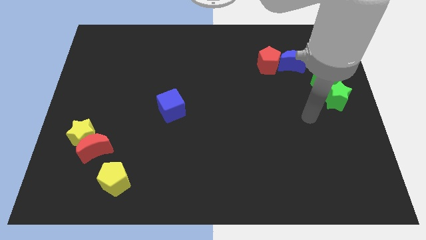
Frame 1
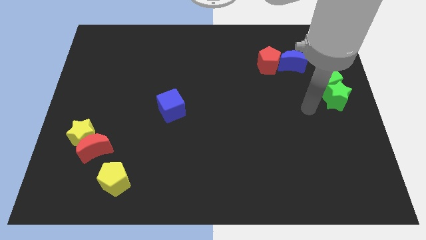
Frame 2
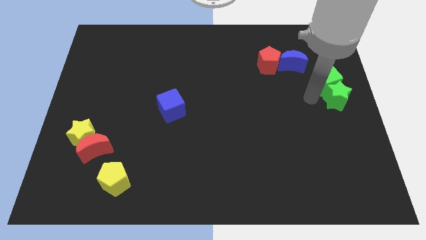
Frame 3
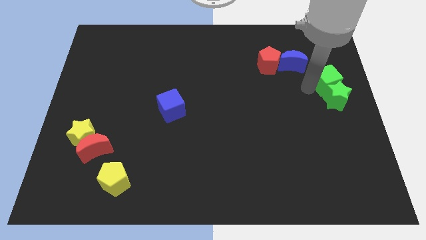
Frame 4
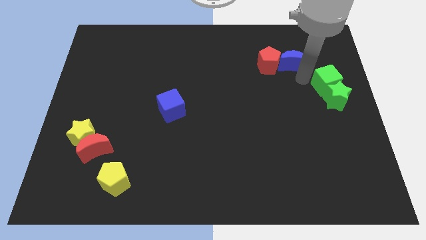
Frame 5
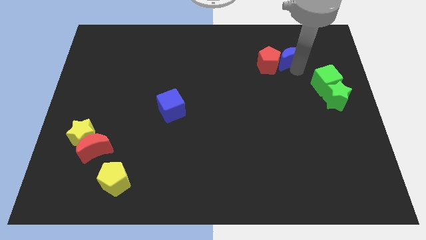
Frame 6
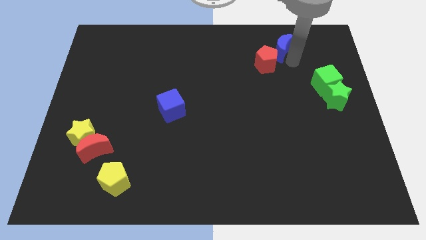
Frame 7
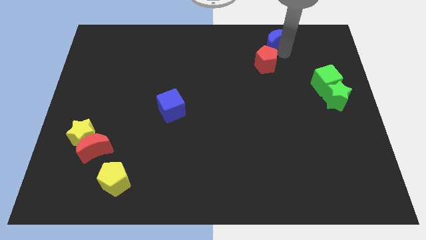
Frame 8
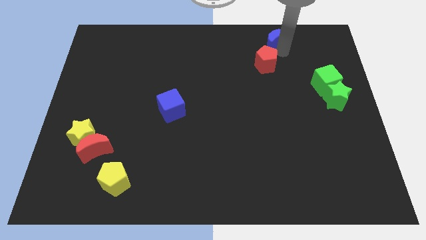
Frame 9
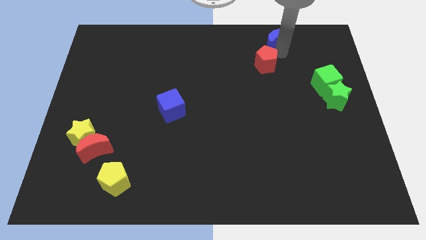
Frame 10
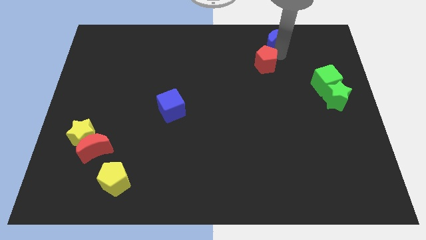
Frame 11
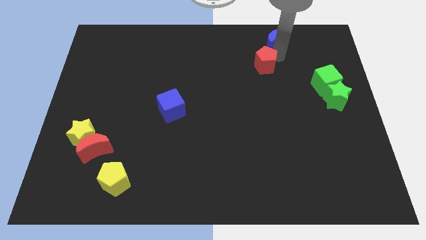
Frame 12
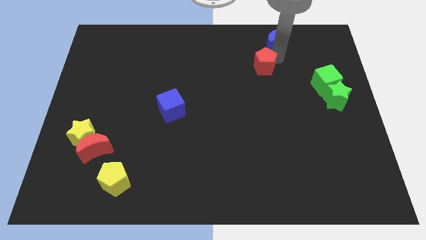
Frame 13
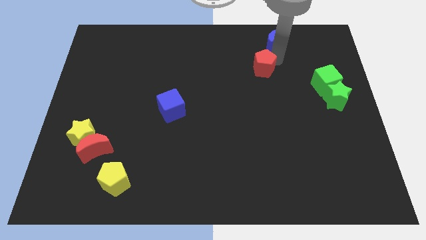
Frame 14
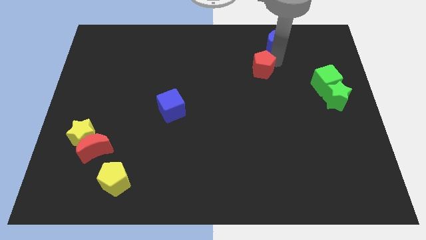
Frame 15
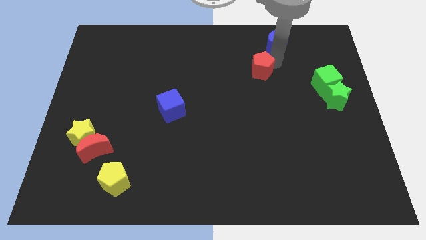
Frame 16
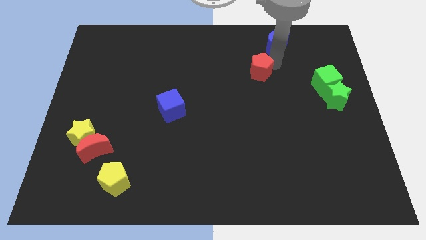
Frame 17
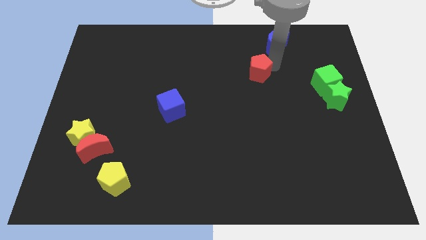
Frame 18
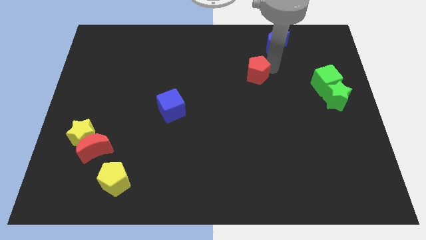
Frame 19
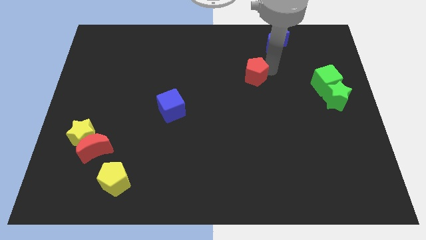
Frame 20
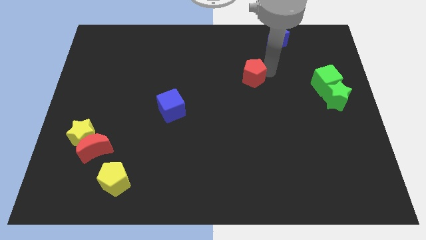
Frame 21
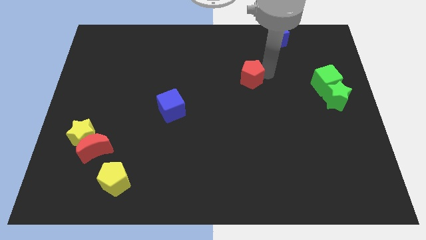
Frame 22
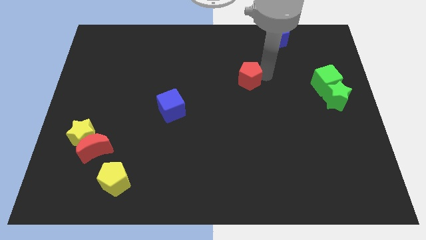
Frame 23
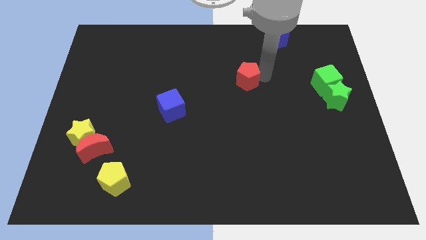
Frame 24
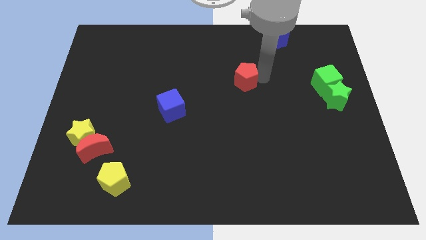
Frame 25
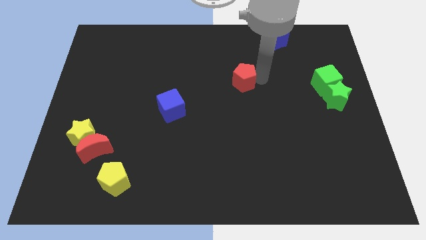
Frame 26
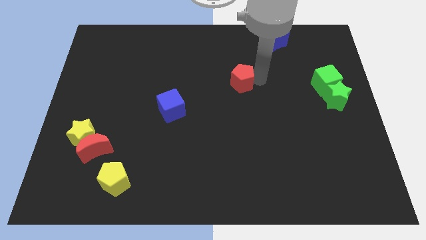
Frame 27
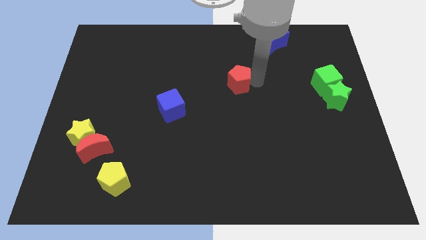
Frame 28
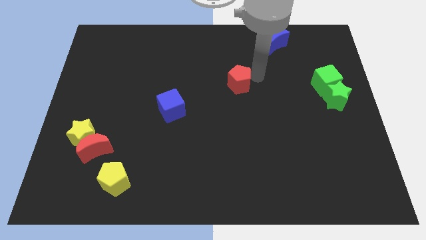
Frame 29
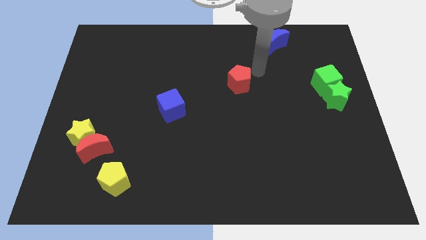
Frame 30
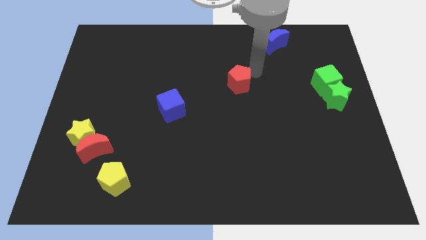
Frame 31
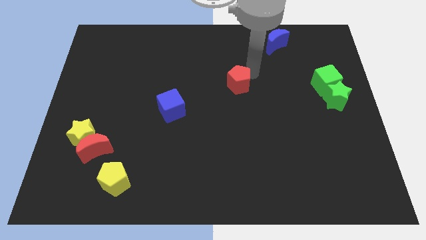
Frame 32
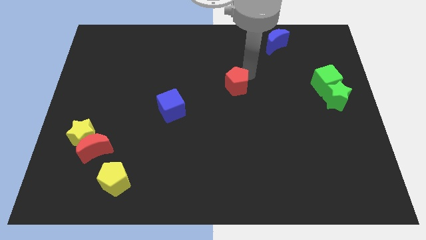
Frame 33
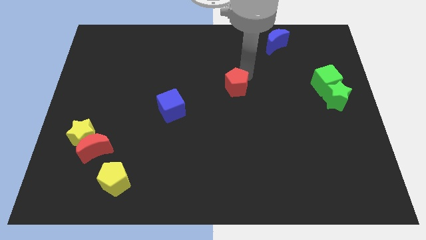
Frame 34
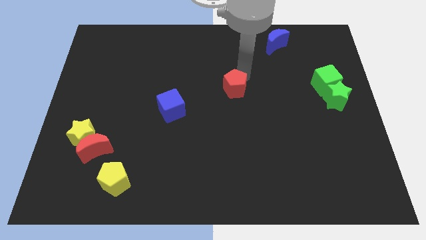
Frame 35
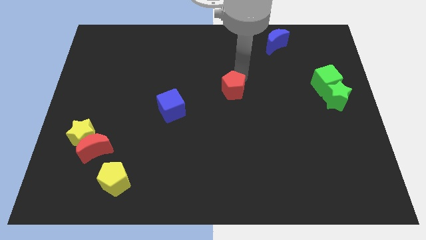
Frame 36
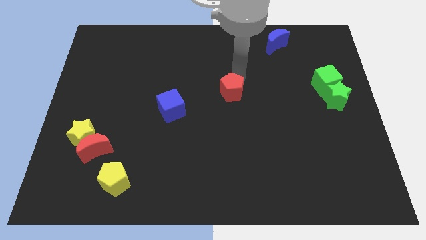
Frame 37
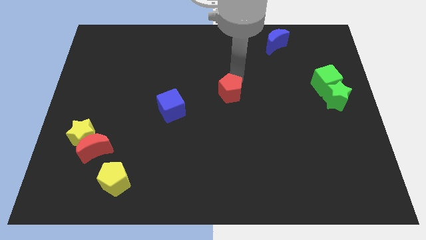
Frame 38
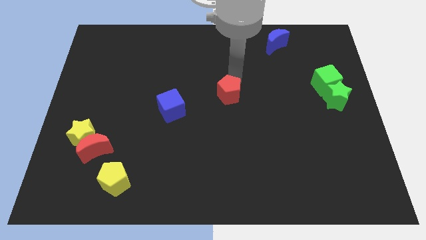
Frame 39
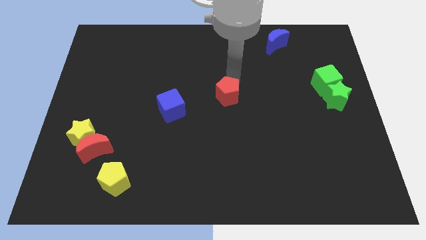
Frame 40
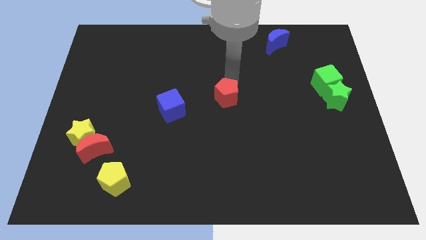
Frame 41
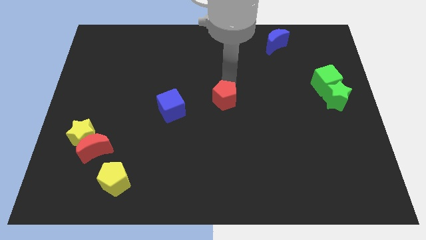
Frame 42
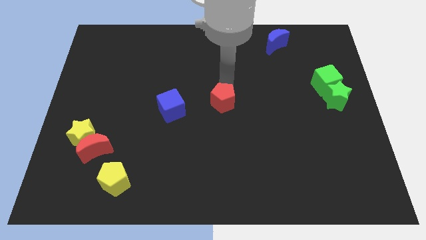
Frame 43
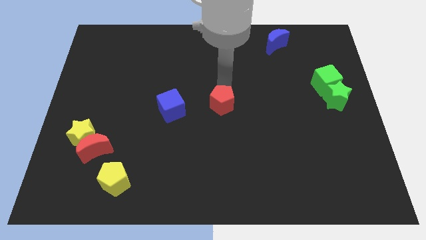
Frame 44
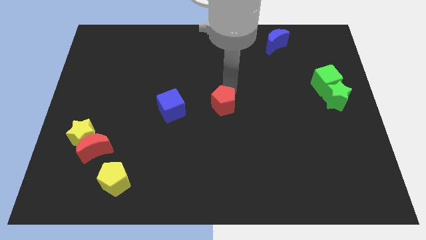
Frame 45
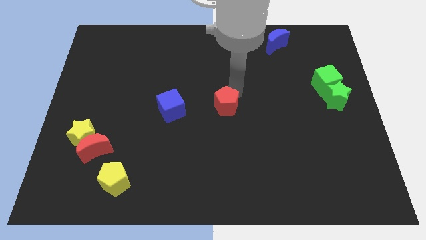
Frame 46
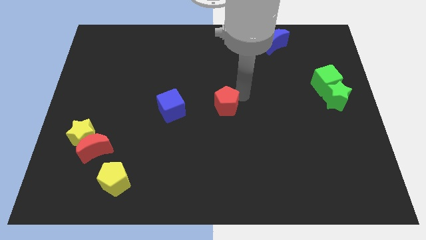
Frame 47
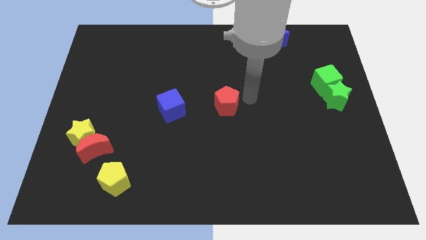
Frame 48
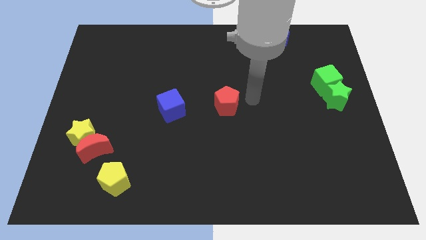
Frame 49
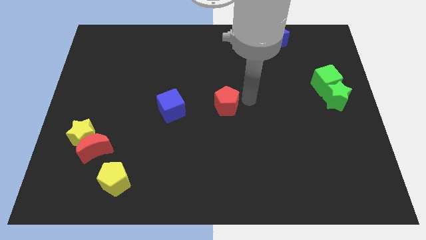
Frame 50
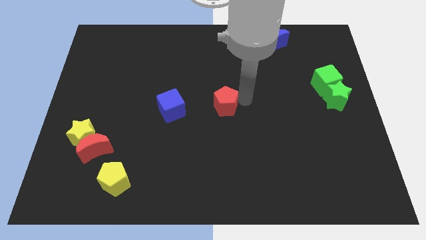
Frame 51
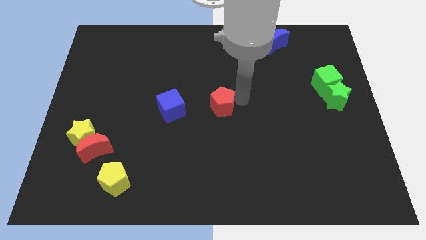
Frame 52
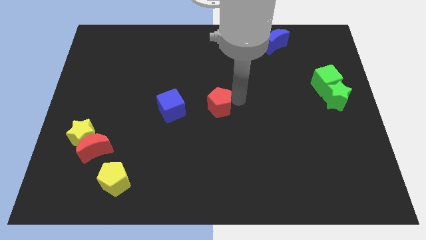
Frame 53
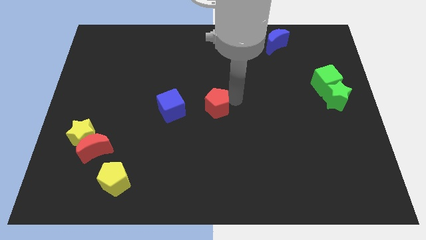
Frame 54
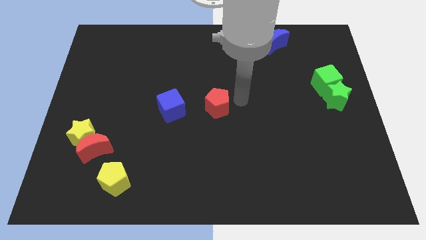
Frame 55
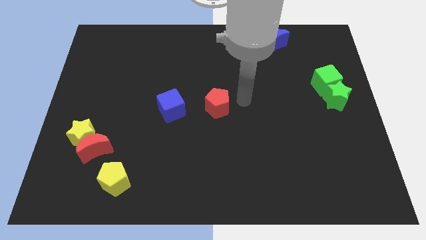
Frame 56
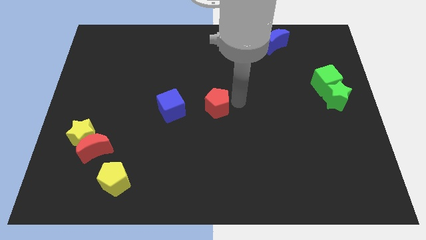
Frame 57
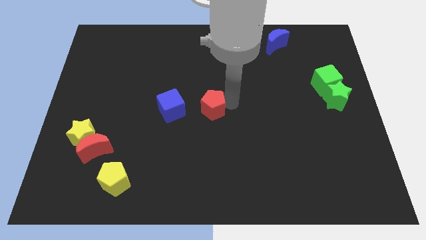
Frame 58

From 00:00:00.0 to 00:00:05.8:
slide the red pentagon down and to the left

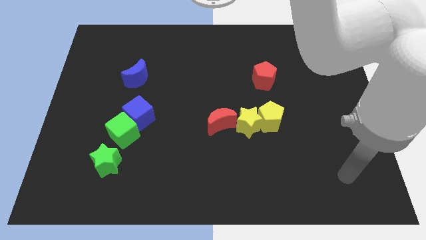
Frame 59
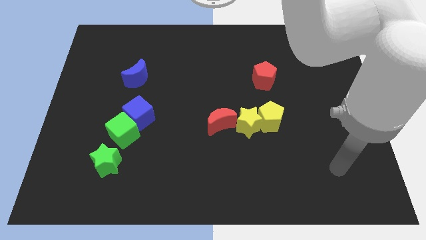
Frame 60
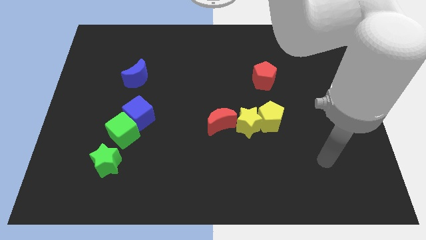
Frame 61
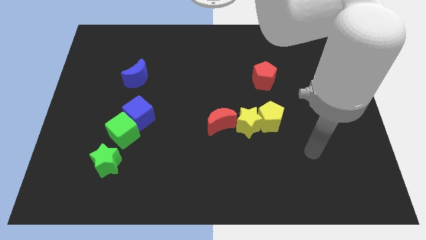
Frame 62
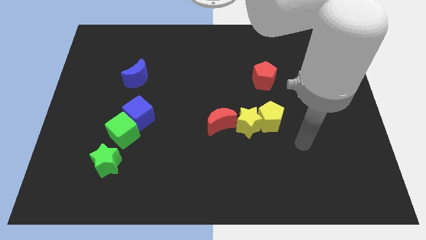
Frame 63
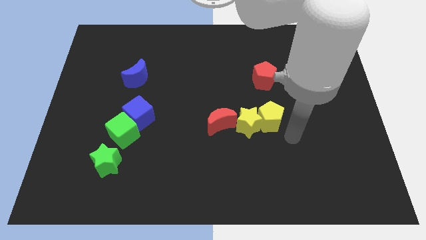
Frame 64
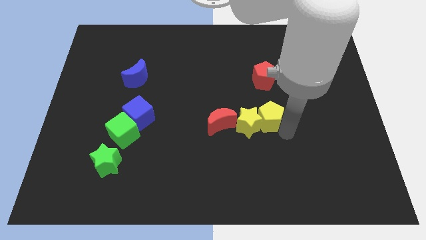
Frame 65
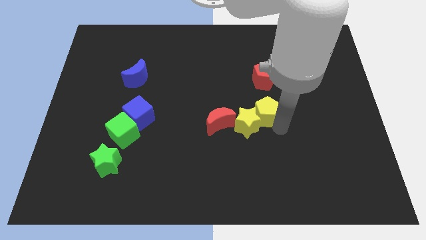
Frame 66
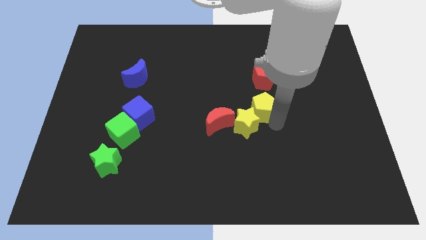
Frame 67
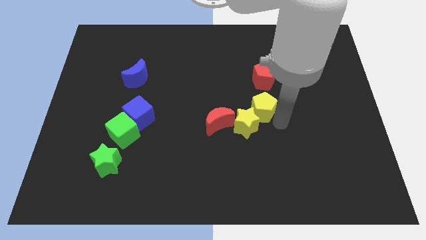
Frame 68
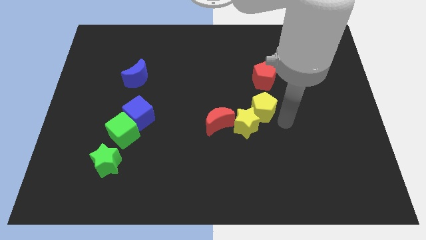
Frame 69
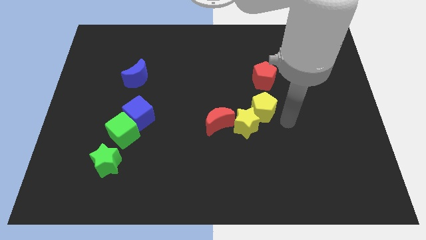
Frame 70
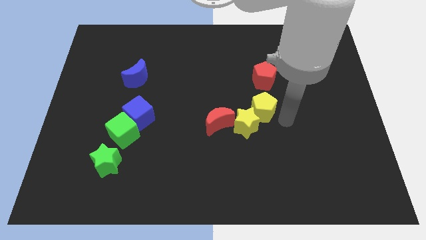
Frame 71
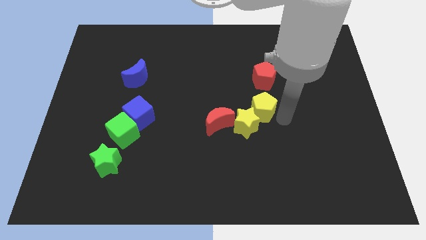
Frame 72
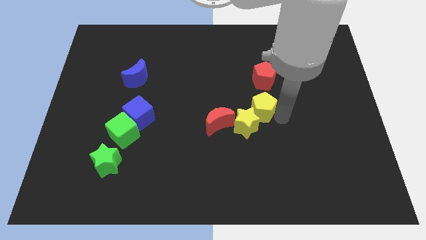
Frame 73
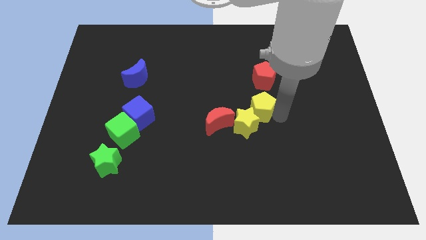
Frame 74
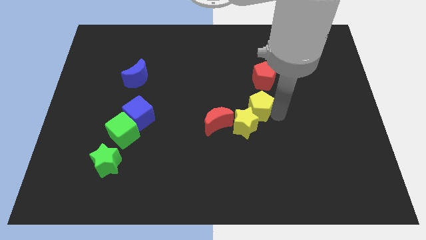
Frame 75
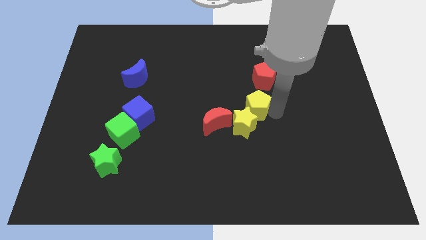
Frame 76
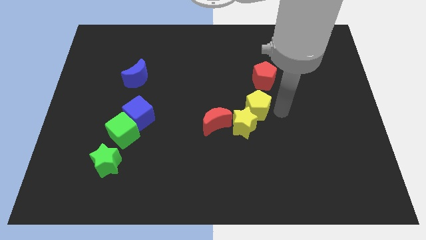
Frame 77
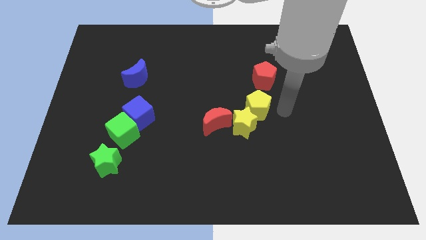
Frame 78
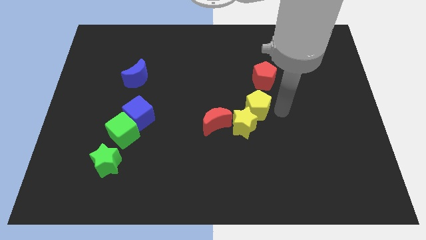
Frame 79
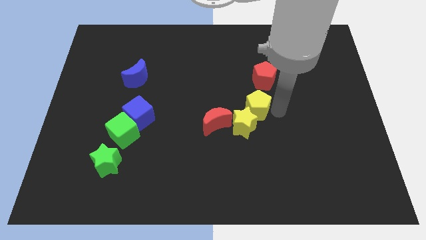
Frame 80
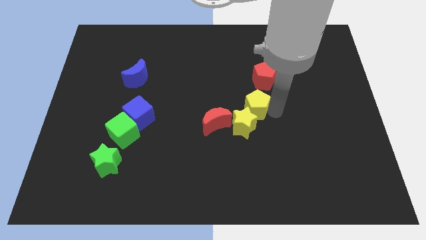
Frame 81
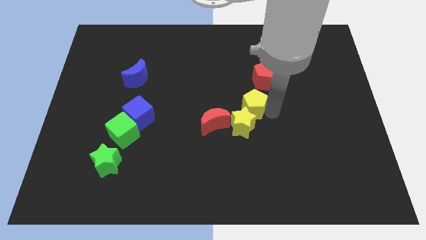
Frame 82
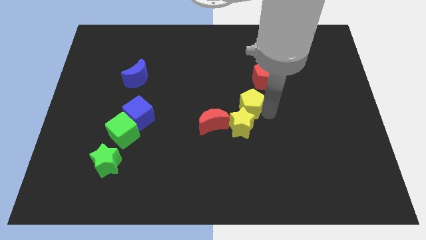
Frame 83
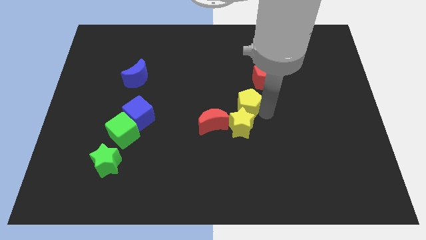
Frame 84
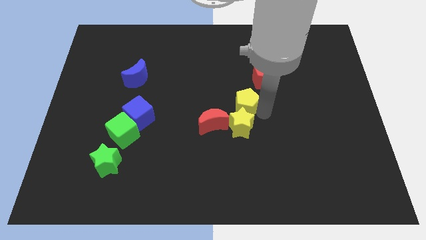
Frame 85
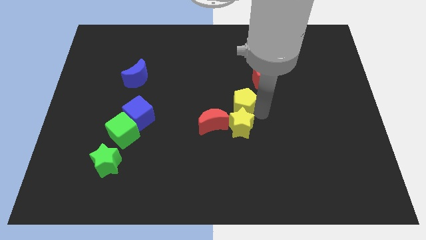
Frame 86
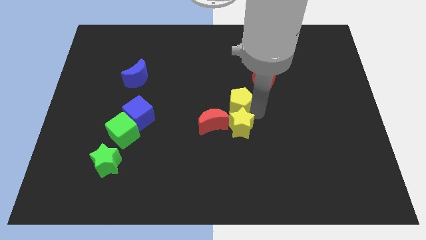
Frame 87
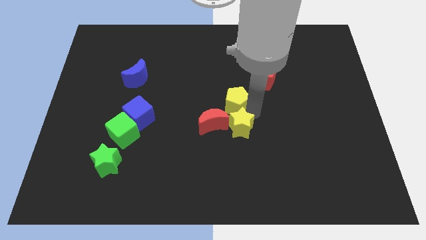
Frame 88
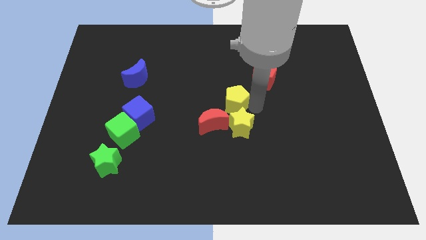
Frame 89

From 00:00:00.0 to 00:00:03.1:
slightly slide the yellow pentagon to the left
